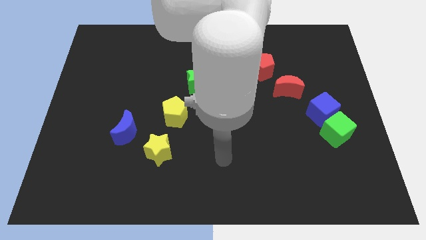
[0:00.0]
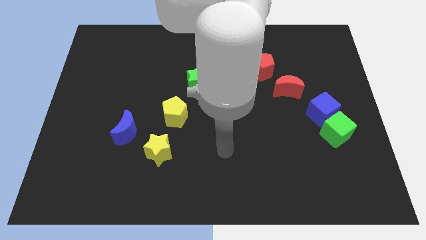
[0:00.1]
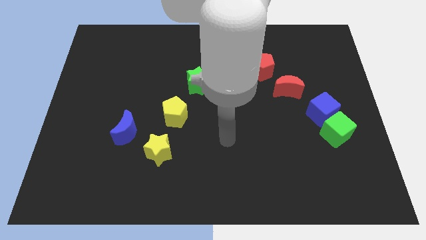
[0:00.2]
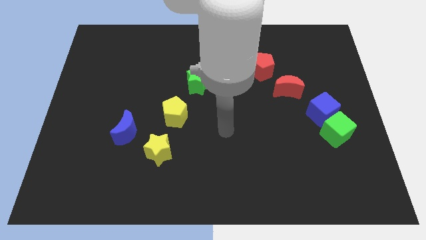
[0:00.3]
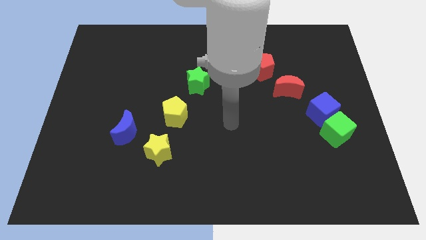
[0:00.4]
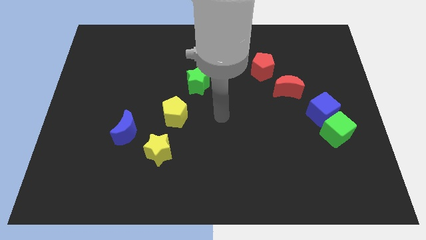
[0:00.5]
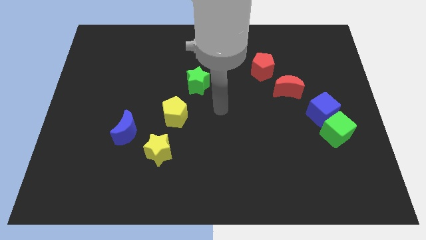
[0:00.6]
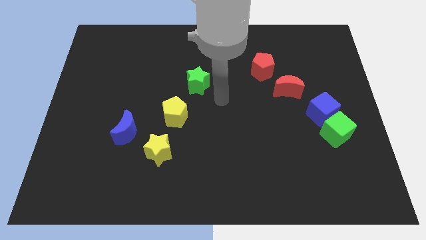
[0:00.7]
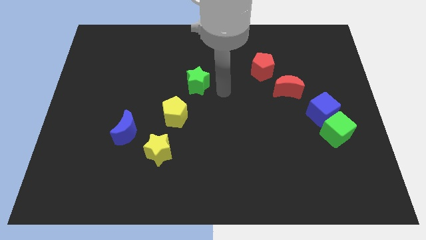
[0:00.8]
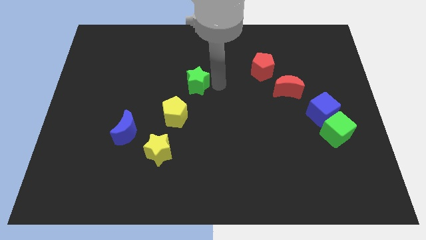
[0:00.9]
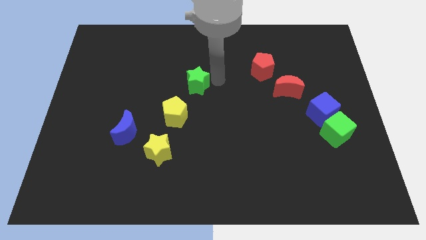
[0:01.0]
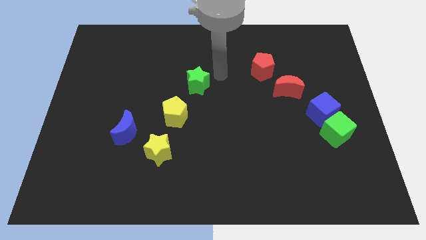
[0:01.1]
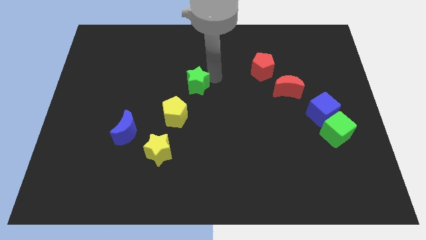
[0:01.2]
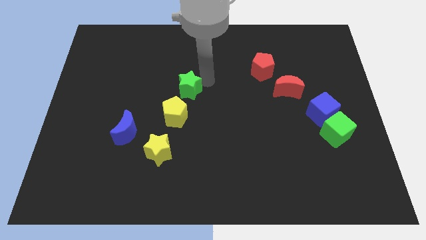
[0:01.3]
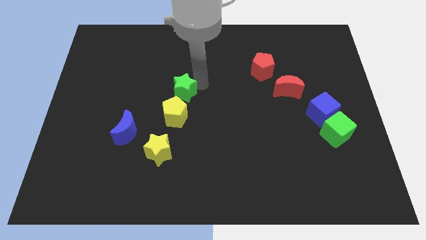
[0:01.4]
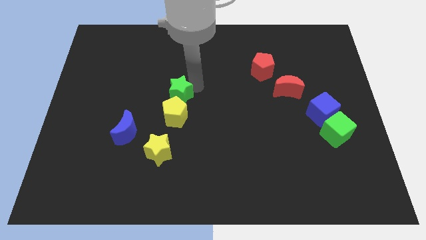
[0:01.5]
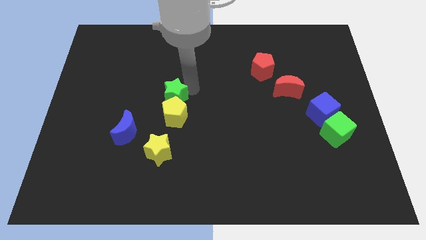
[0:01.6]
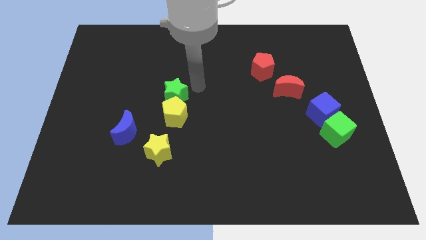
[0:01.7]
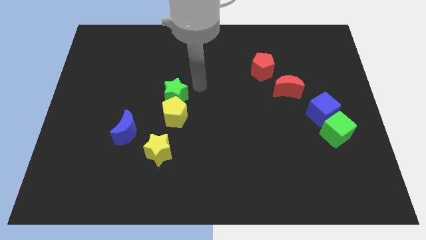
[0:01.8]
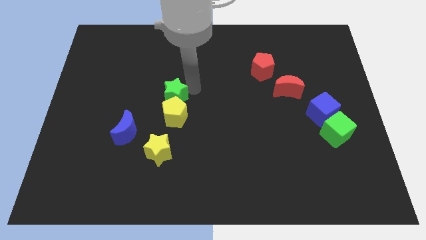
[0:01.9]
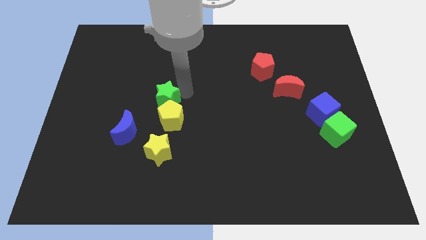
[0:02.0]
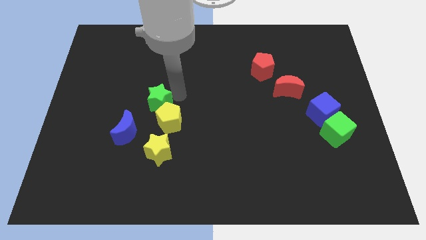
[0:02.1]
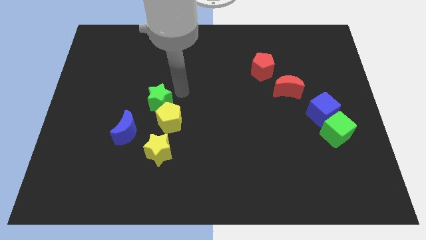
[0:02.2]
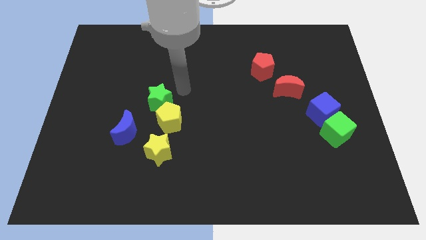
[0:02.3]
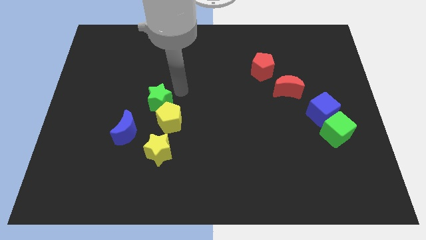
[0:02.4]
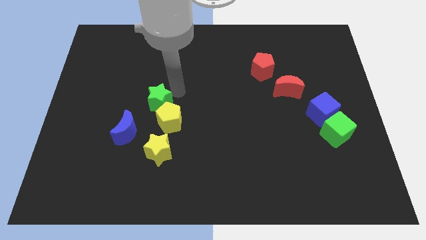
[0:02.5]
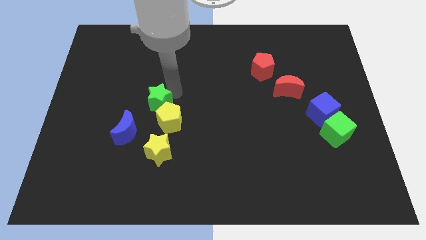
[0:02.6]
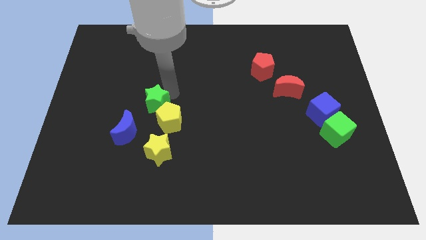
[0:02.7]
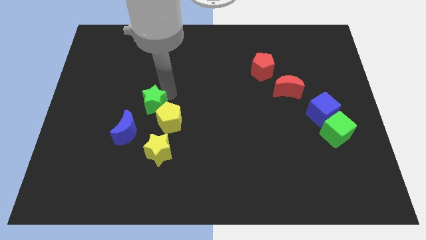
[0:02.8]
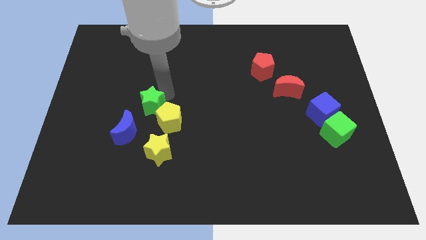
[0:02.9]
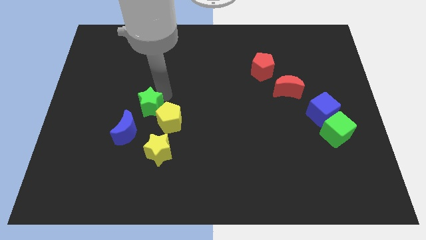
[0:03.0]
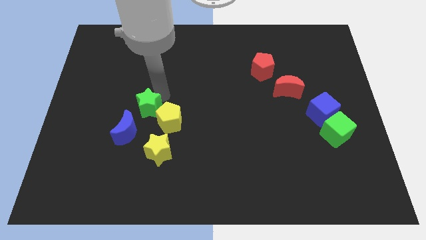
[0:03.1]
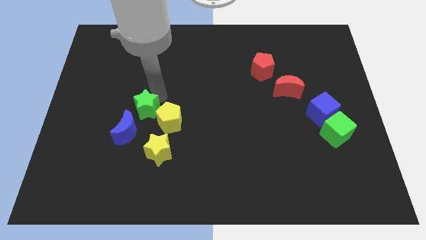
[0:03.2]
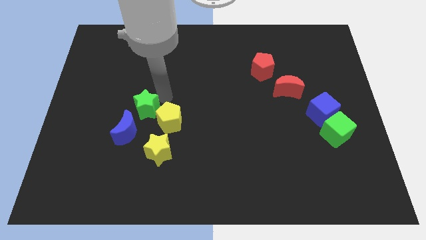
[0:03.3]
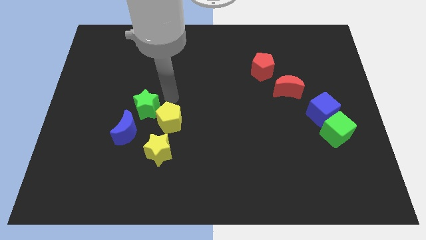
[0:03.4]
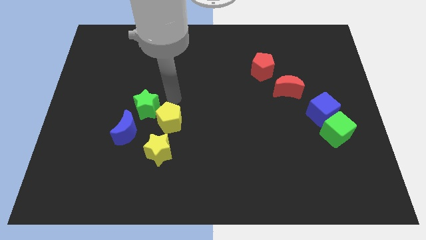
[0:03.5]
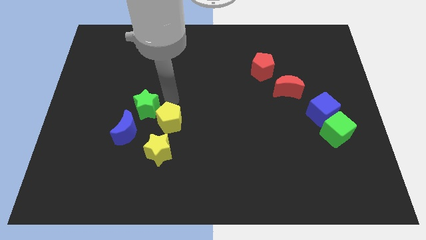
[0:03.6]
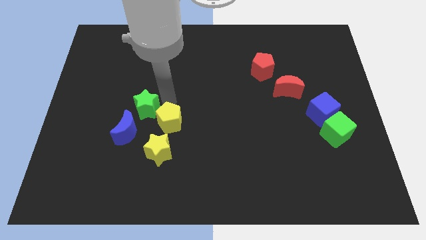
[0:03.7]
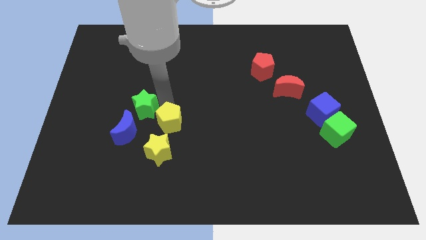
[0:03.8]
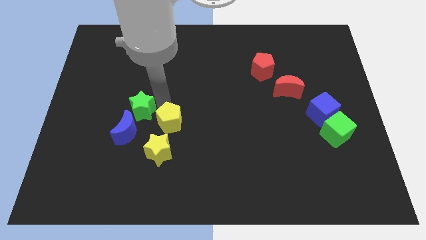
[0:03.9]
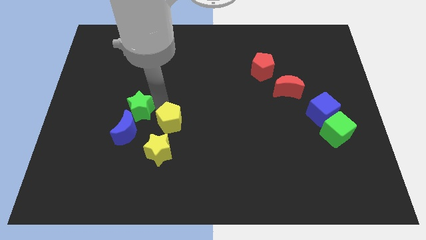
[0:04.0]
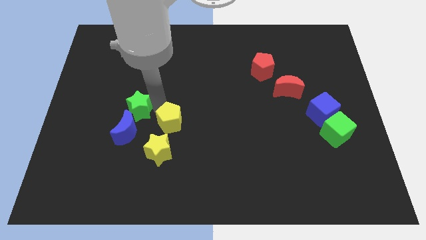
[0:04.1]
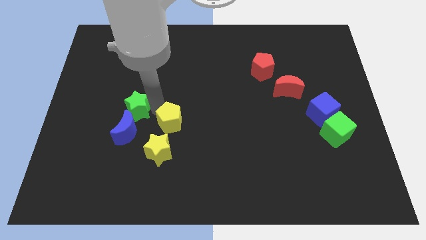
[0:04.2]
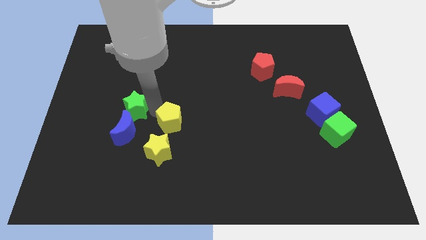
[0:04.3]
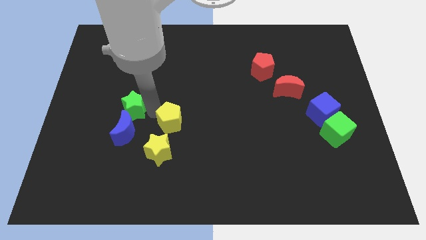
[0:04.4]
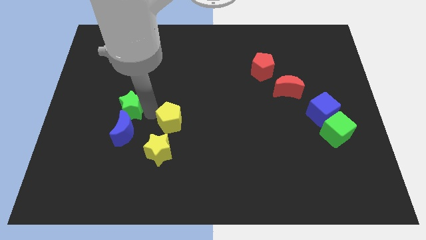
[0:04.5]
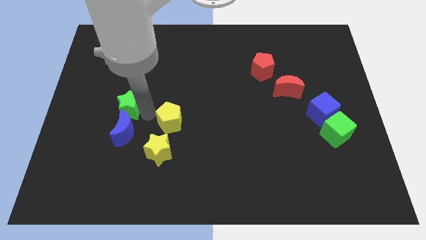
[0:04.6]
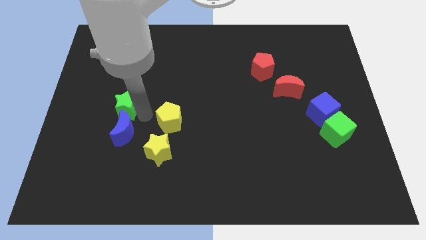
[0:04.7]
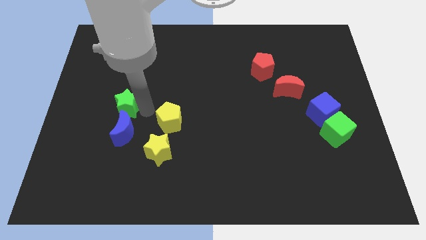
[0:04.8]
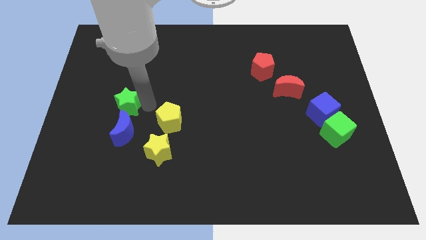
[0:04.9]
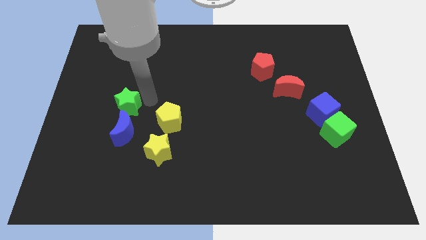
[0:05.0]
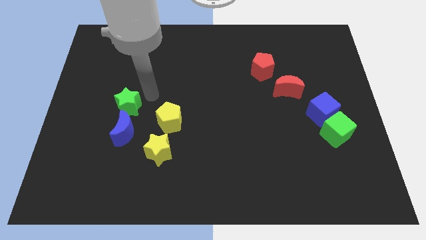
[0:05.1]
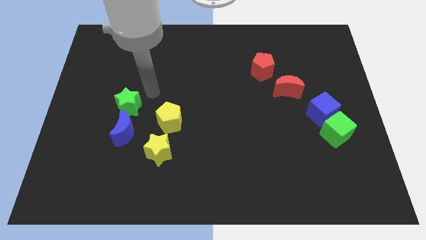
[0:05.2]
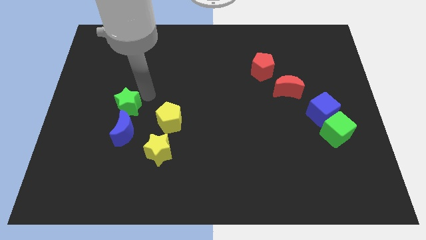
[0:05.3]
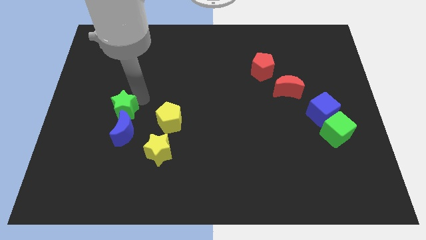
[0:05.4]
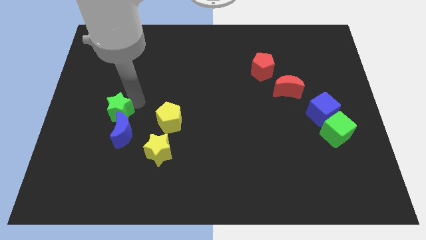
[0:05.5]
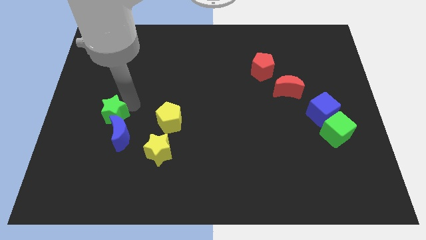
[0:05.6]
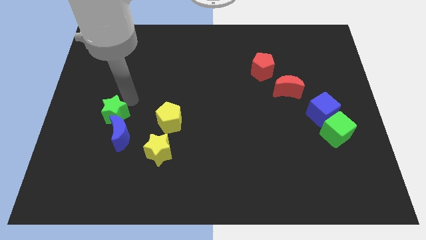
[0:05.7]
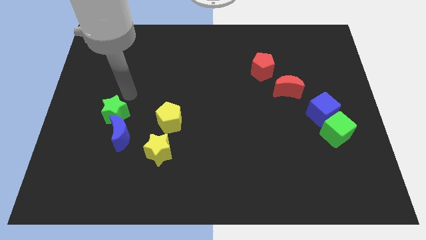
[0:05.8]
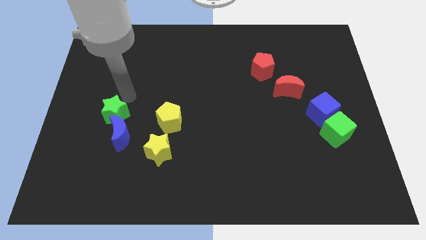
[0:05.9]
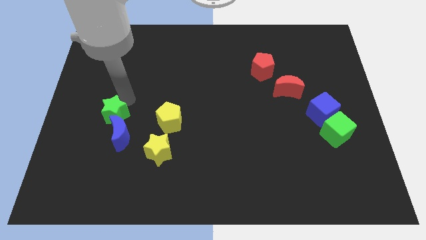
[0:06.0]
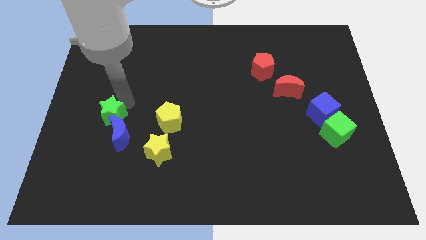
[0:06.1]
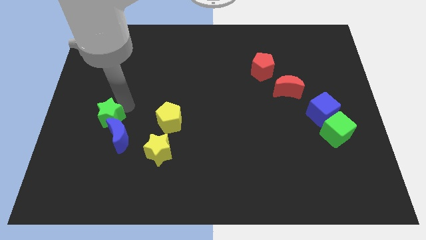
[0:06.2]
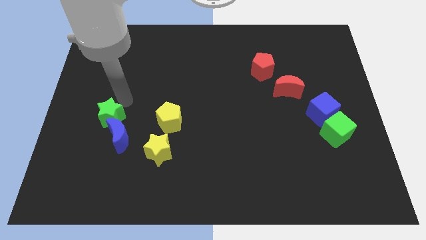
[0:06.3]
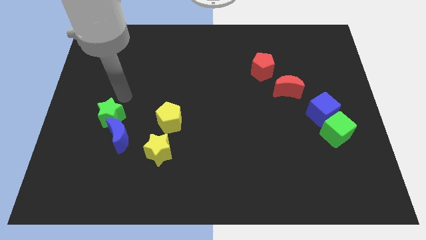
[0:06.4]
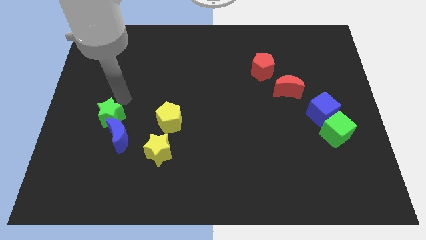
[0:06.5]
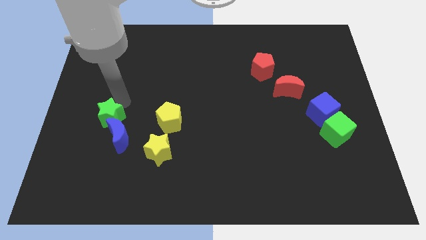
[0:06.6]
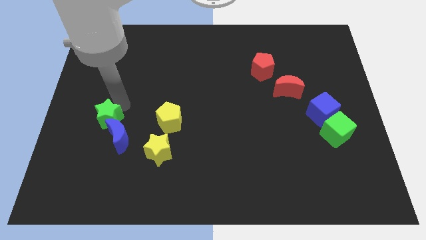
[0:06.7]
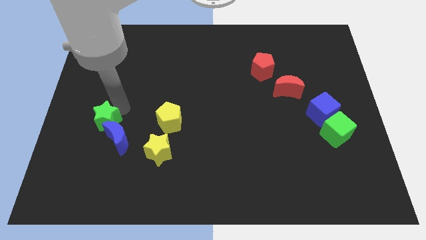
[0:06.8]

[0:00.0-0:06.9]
slide the green star downwards and to the left diagonally

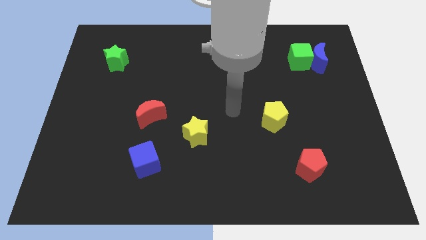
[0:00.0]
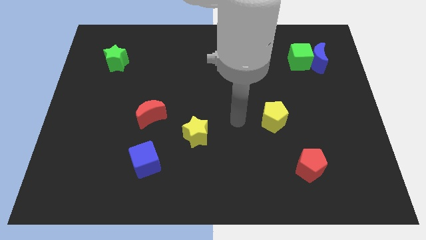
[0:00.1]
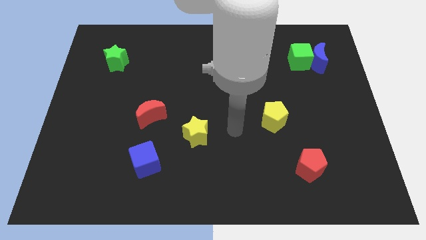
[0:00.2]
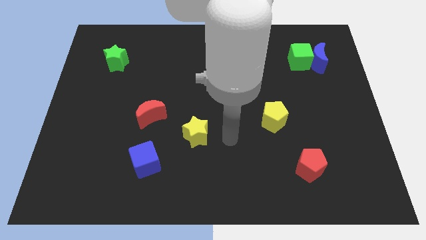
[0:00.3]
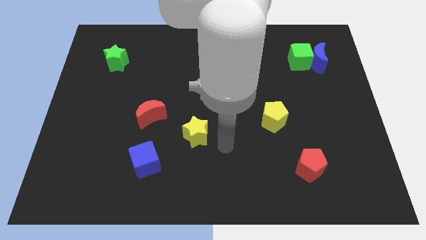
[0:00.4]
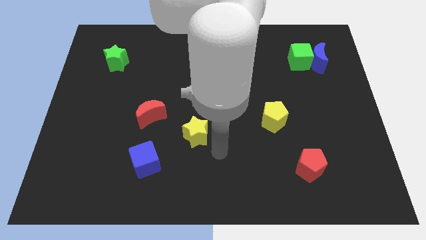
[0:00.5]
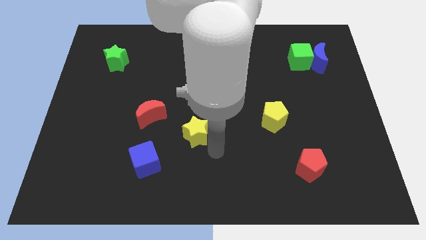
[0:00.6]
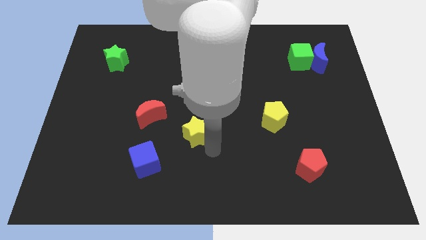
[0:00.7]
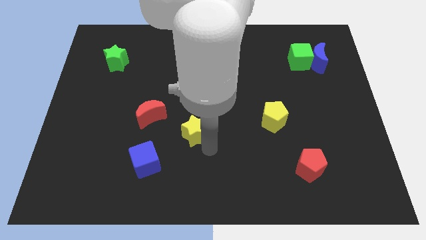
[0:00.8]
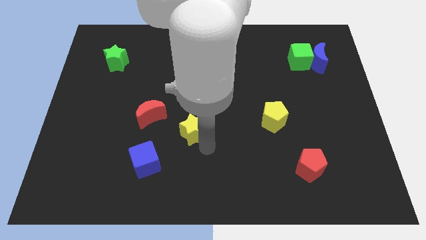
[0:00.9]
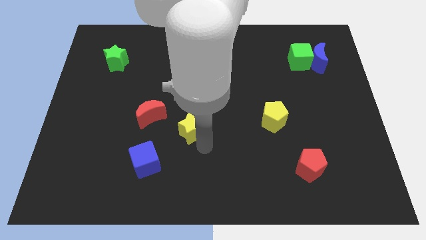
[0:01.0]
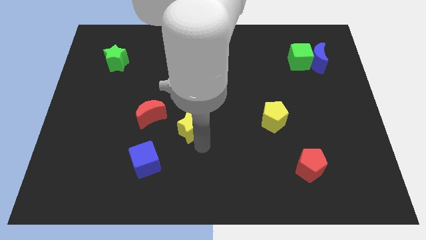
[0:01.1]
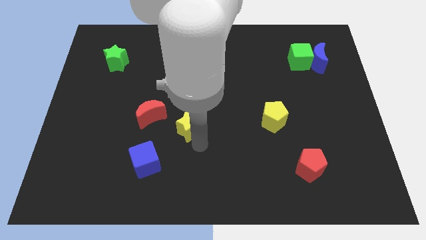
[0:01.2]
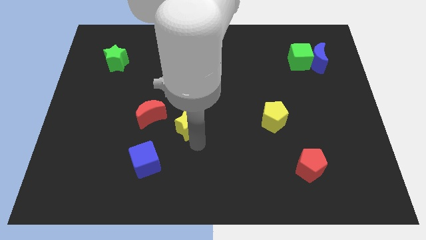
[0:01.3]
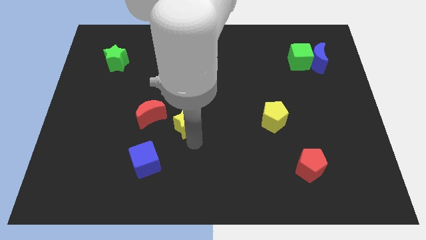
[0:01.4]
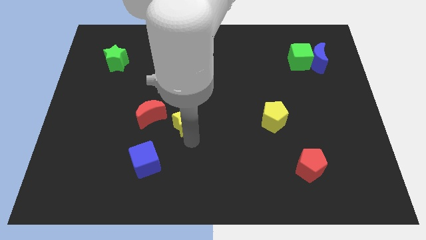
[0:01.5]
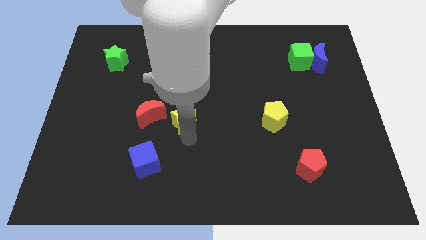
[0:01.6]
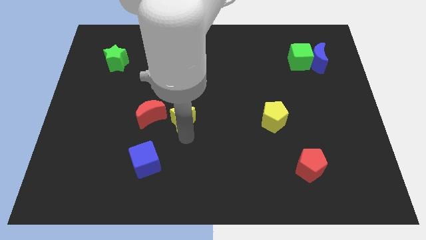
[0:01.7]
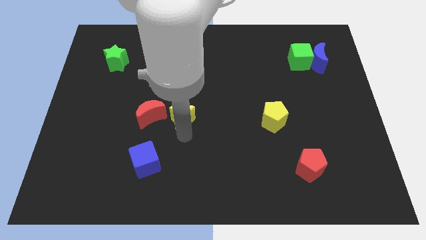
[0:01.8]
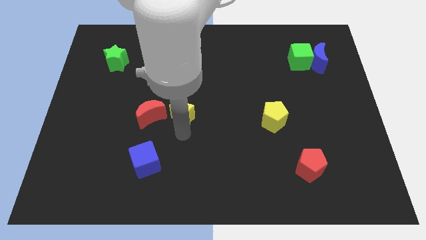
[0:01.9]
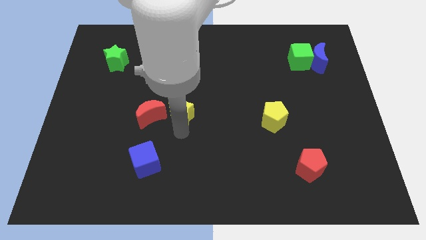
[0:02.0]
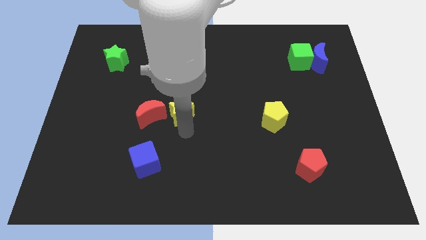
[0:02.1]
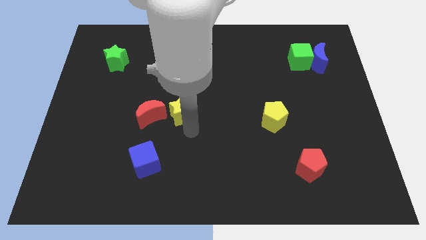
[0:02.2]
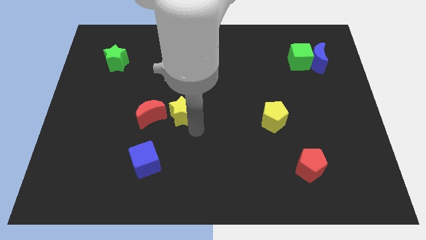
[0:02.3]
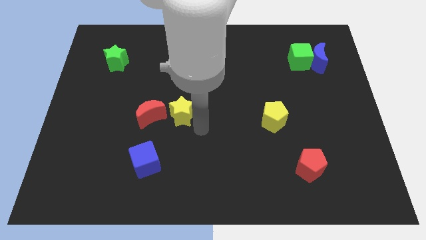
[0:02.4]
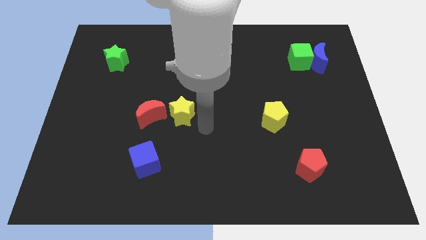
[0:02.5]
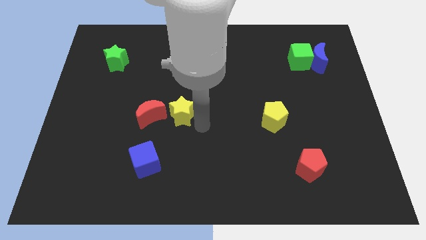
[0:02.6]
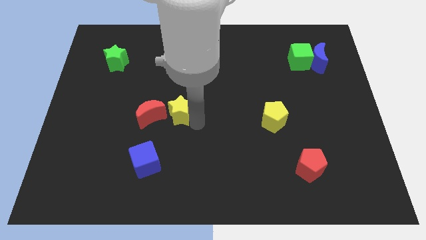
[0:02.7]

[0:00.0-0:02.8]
move the yellow star a little bit up and then to the left
